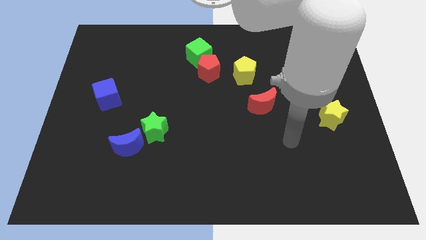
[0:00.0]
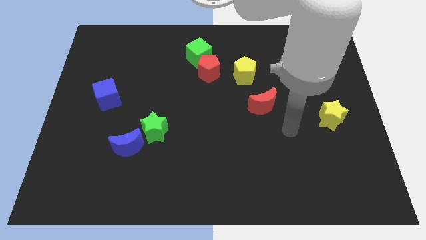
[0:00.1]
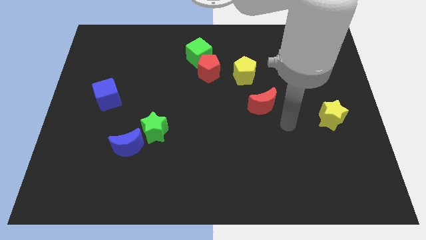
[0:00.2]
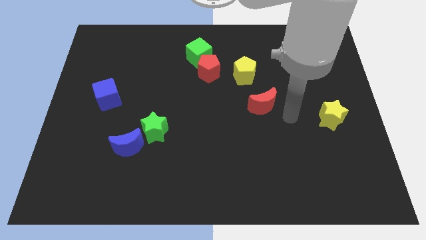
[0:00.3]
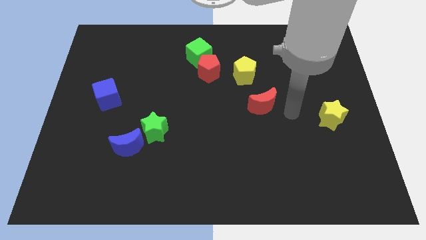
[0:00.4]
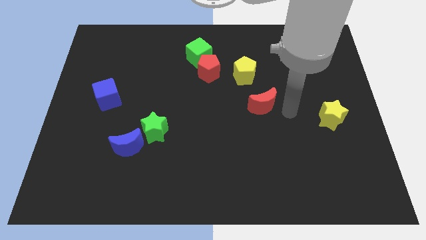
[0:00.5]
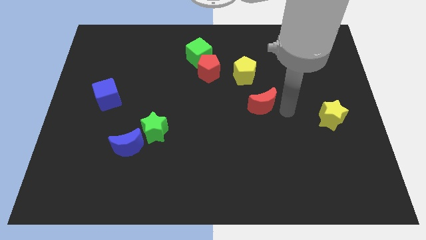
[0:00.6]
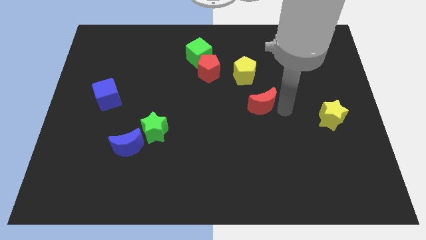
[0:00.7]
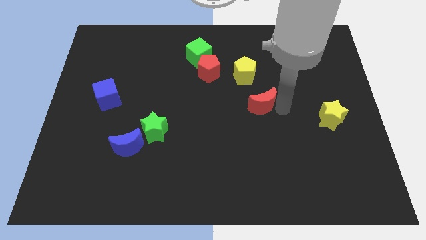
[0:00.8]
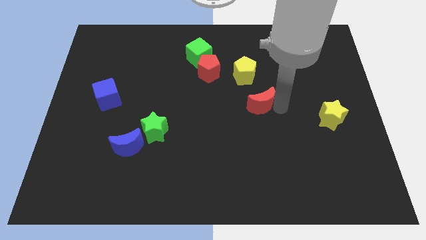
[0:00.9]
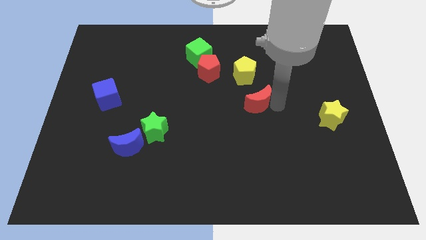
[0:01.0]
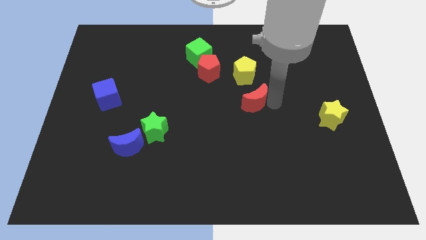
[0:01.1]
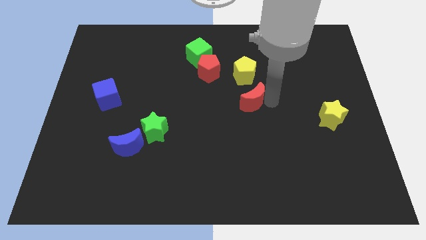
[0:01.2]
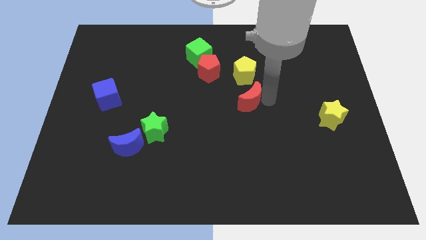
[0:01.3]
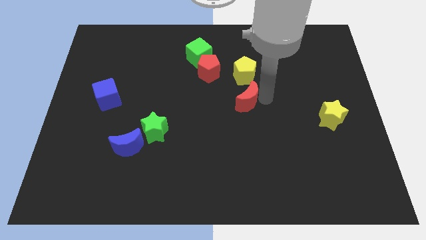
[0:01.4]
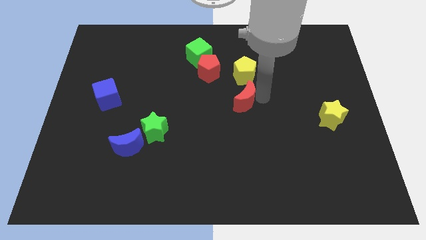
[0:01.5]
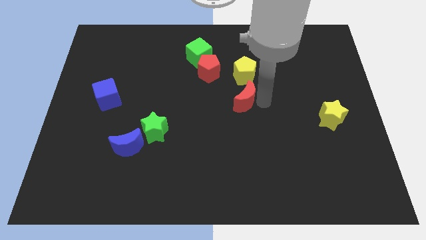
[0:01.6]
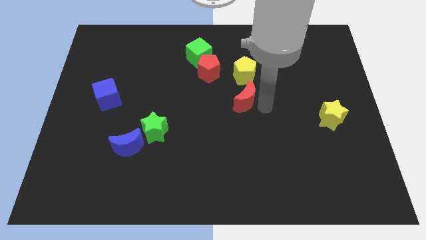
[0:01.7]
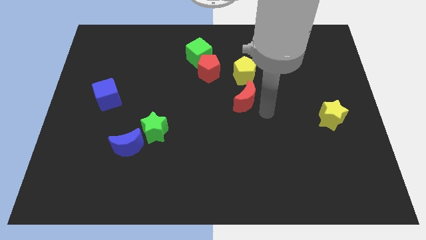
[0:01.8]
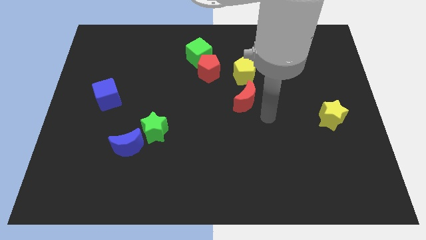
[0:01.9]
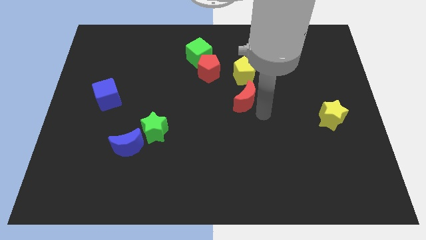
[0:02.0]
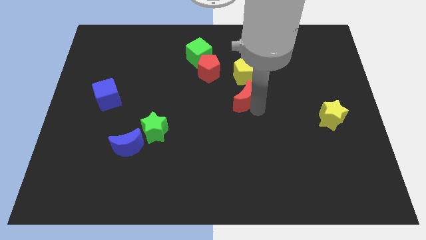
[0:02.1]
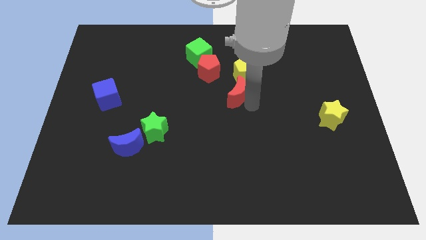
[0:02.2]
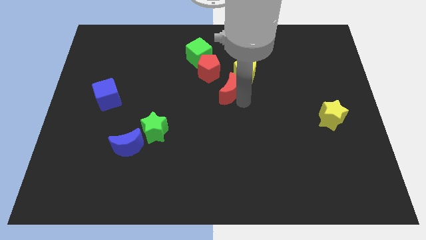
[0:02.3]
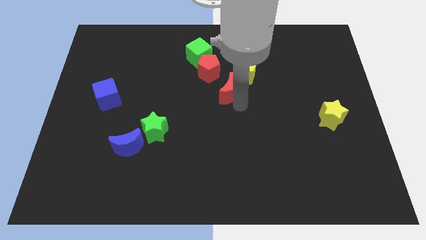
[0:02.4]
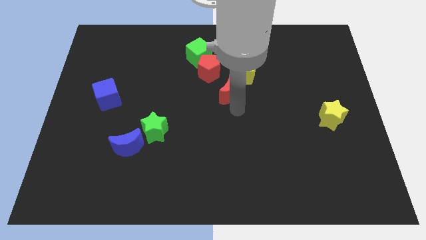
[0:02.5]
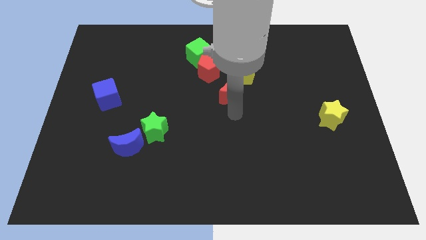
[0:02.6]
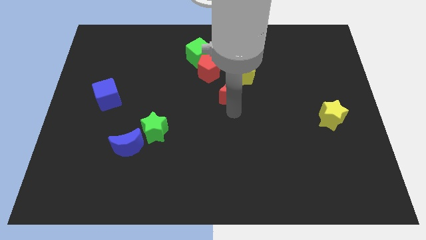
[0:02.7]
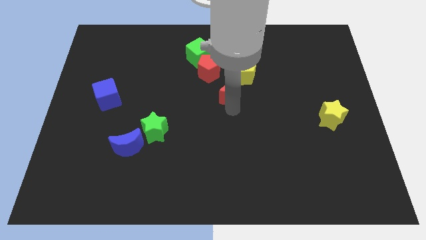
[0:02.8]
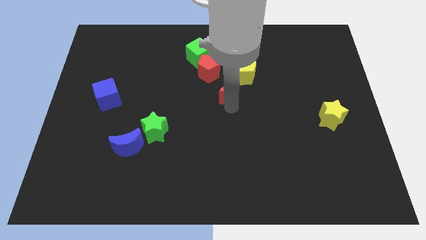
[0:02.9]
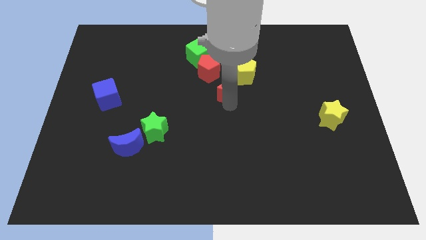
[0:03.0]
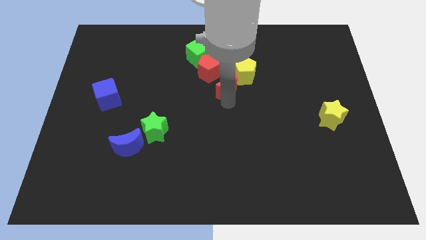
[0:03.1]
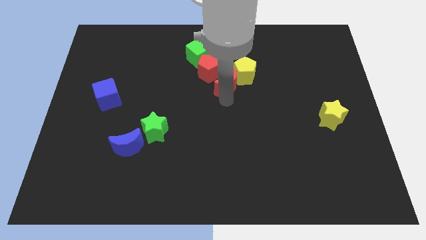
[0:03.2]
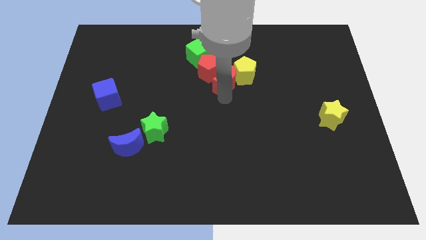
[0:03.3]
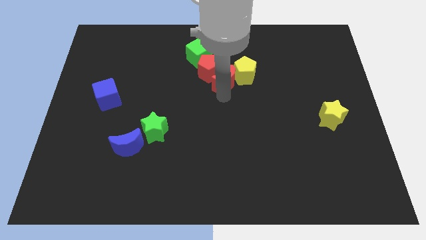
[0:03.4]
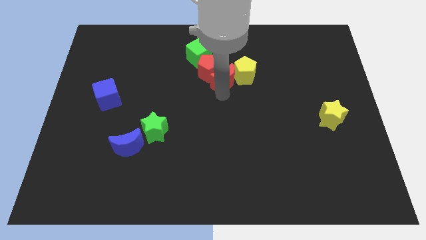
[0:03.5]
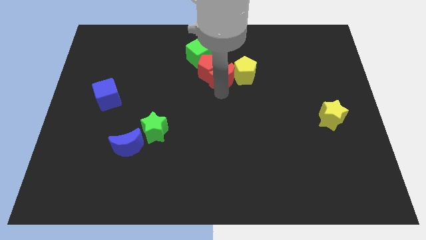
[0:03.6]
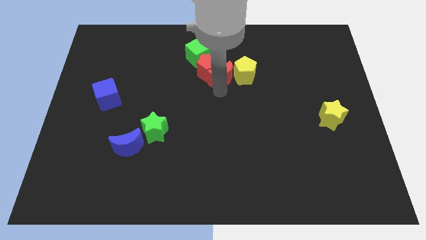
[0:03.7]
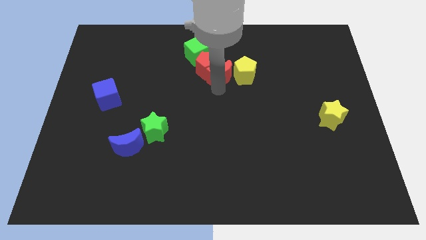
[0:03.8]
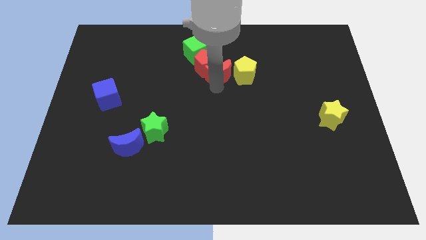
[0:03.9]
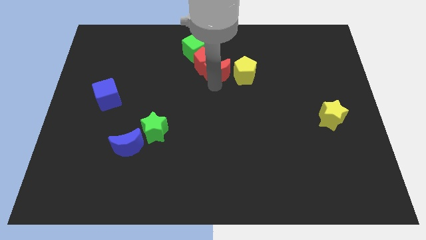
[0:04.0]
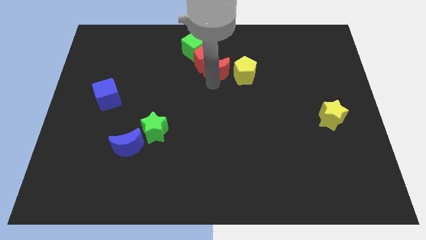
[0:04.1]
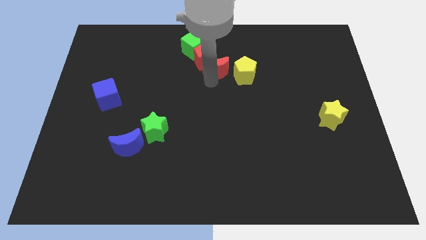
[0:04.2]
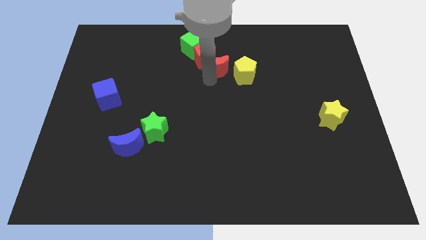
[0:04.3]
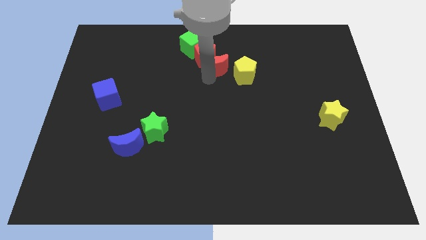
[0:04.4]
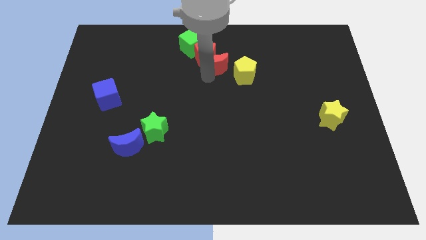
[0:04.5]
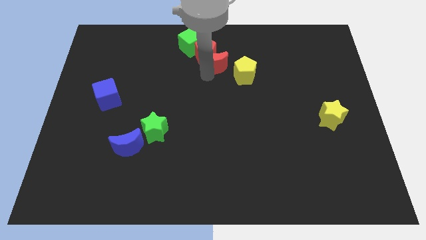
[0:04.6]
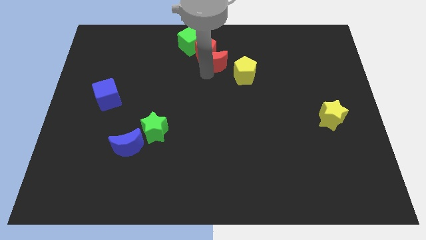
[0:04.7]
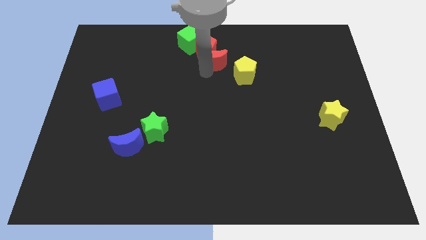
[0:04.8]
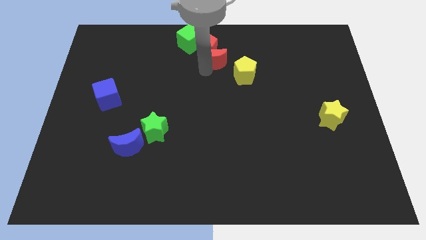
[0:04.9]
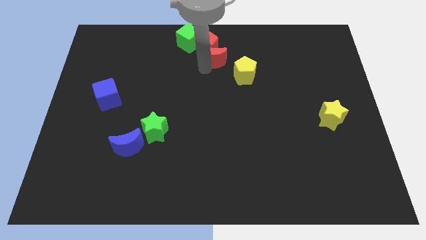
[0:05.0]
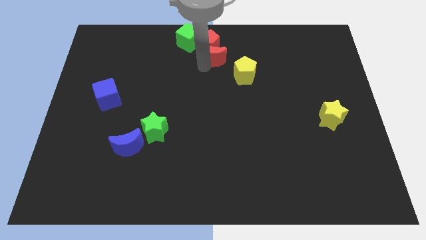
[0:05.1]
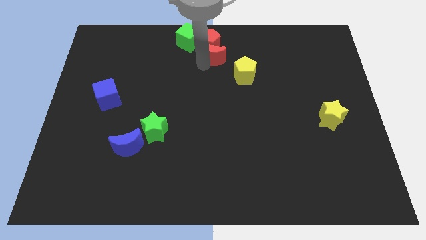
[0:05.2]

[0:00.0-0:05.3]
slide the red moon to the towards your base

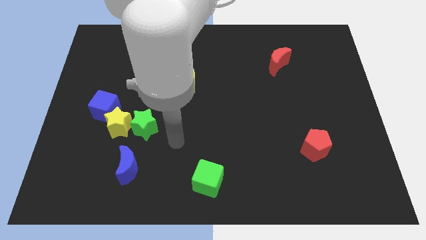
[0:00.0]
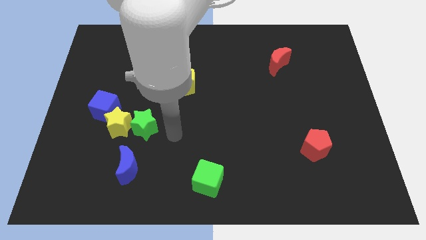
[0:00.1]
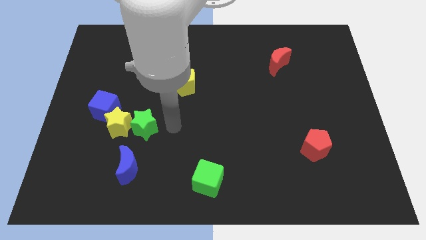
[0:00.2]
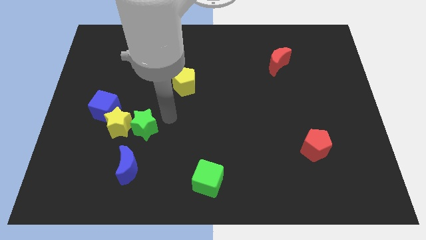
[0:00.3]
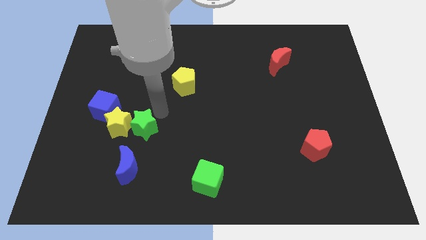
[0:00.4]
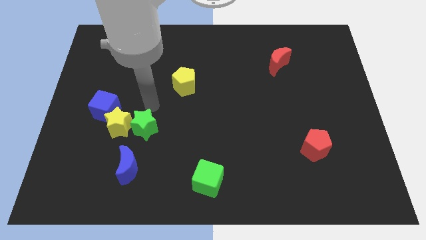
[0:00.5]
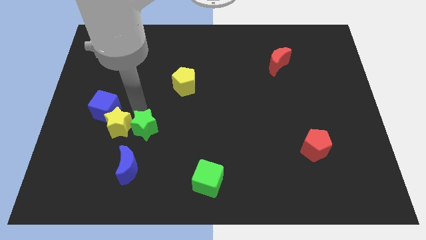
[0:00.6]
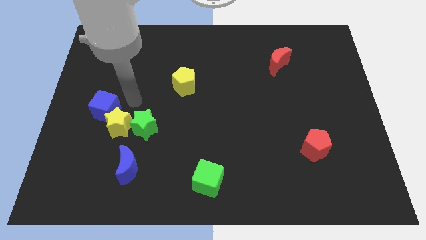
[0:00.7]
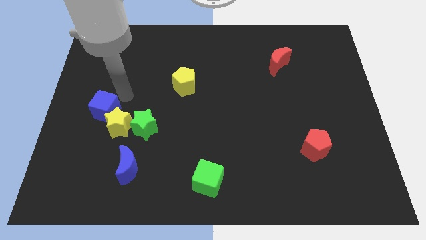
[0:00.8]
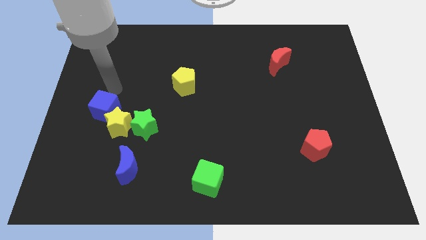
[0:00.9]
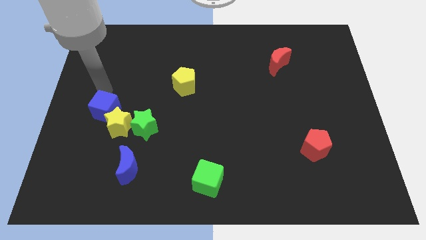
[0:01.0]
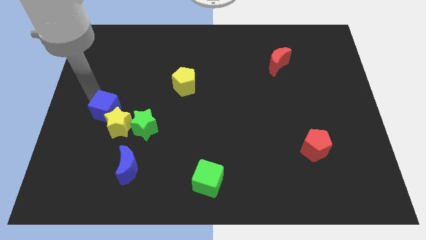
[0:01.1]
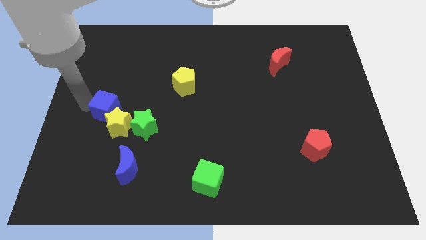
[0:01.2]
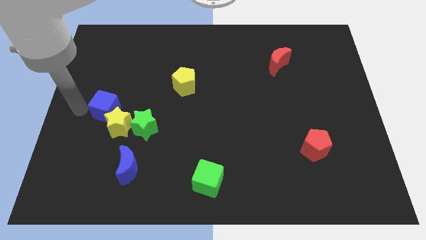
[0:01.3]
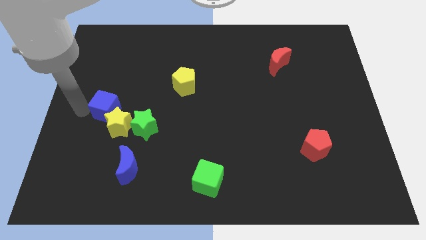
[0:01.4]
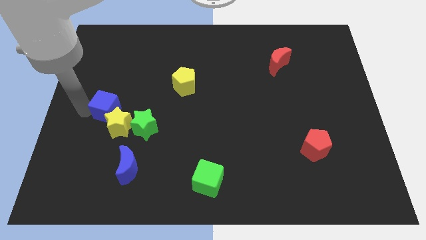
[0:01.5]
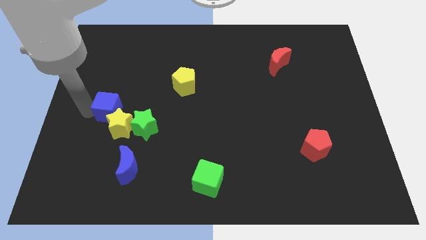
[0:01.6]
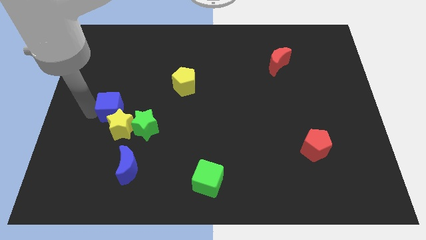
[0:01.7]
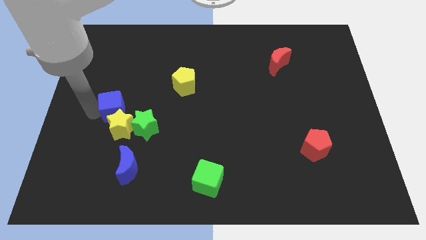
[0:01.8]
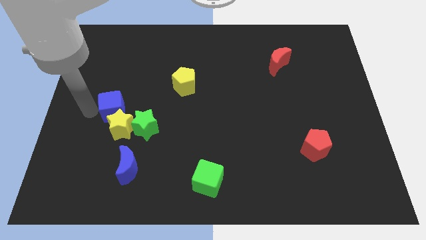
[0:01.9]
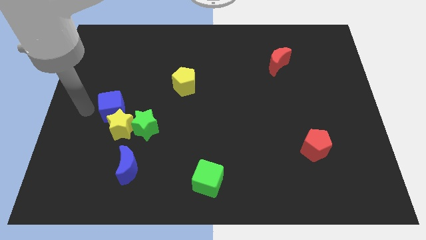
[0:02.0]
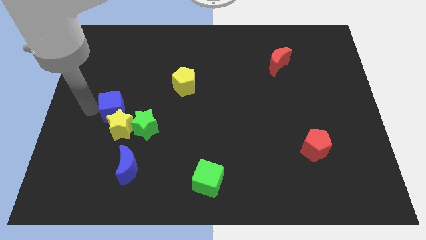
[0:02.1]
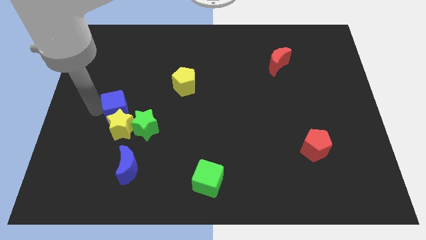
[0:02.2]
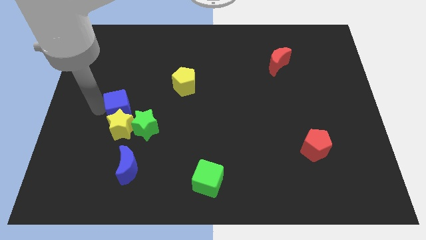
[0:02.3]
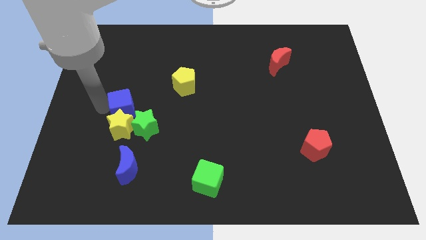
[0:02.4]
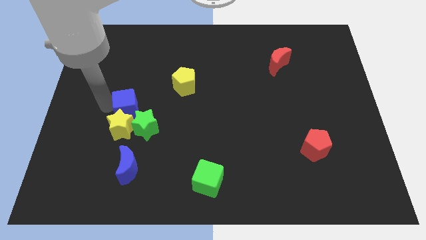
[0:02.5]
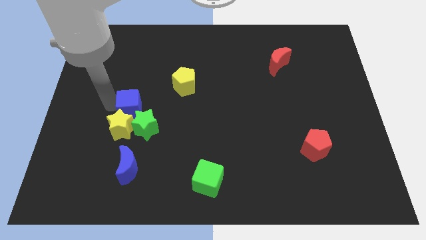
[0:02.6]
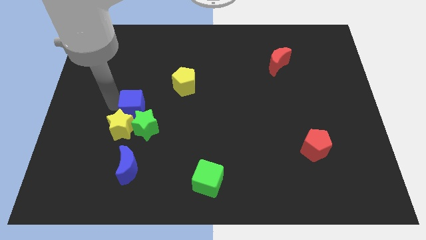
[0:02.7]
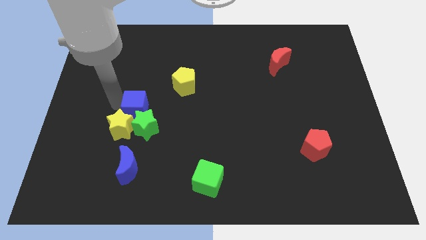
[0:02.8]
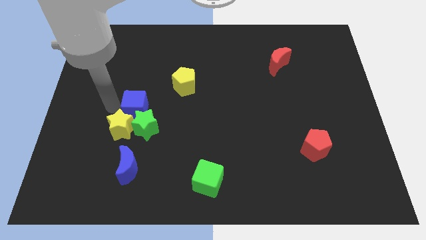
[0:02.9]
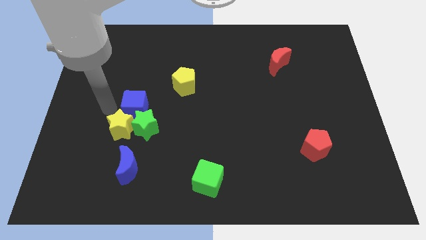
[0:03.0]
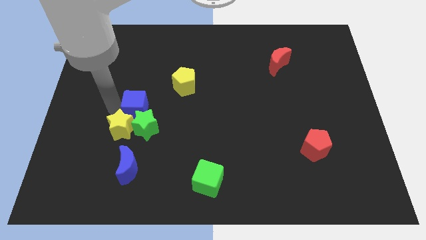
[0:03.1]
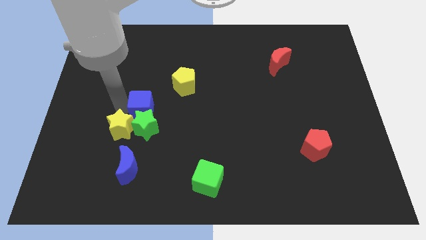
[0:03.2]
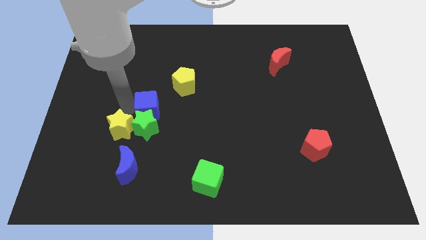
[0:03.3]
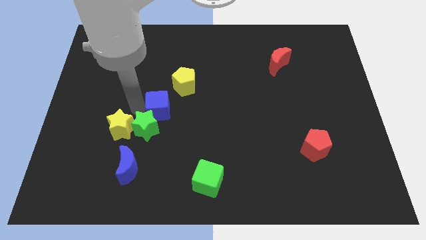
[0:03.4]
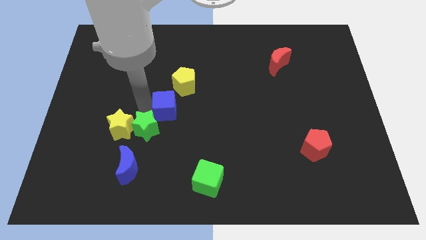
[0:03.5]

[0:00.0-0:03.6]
slide the blue cube to the center
